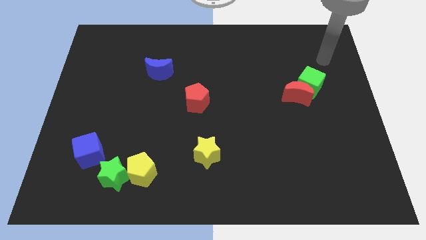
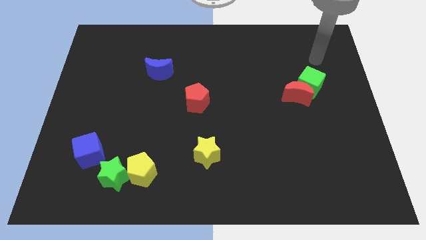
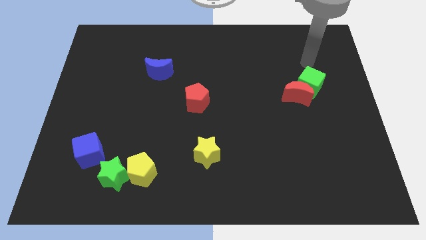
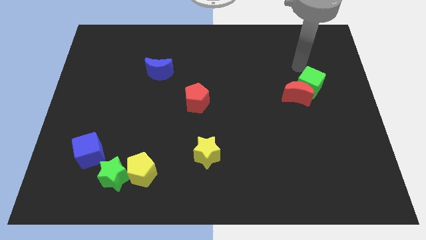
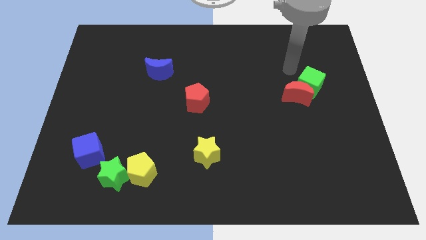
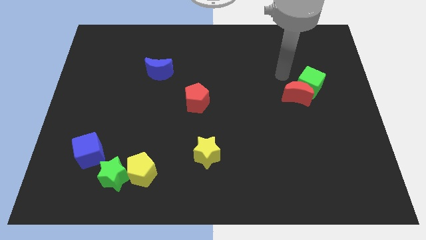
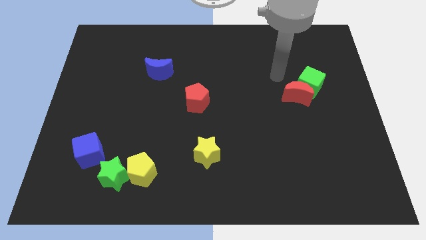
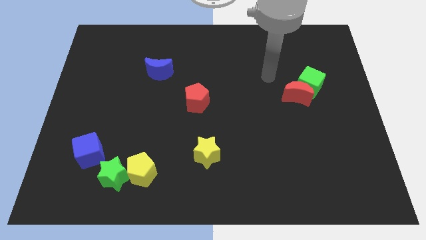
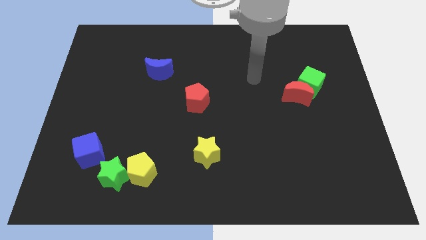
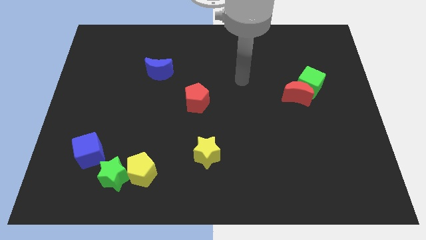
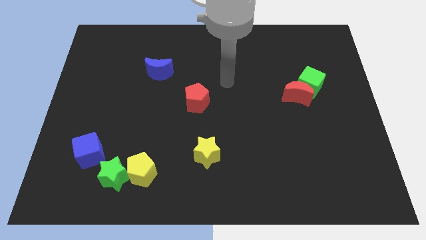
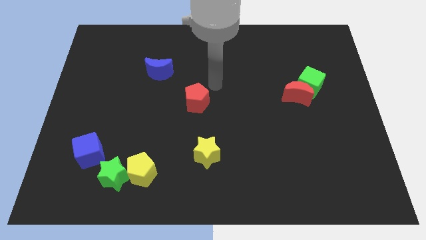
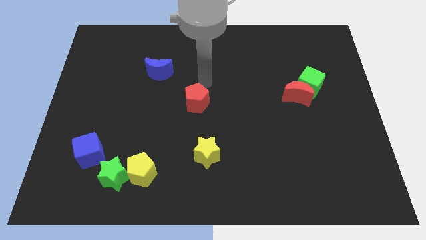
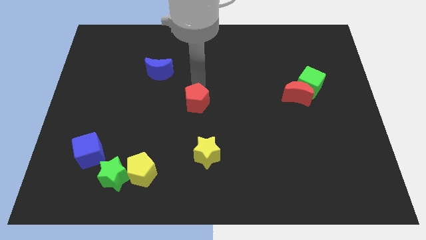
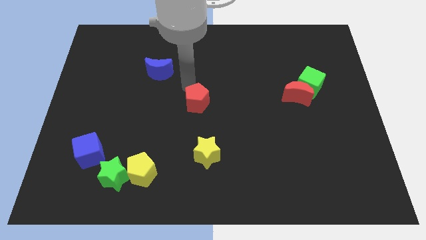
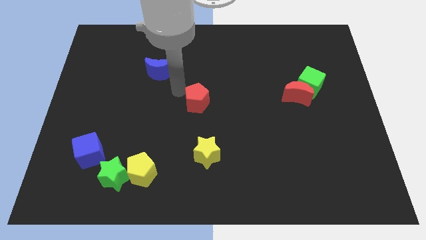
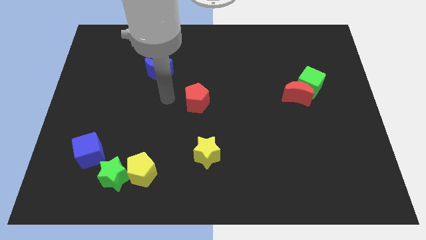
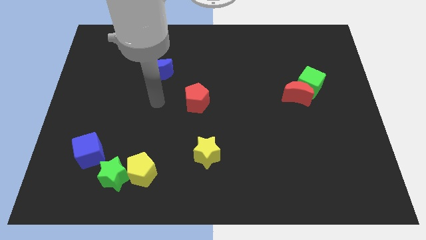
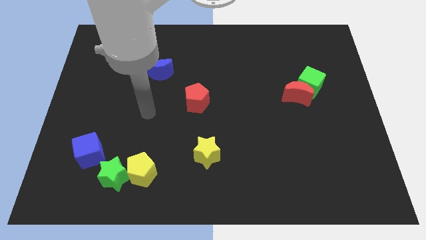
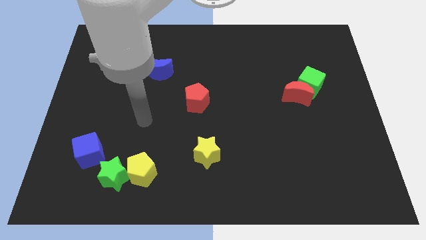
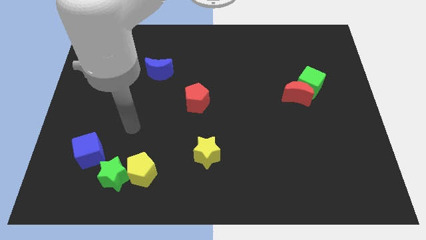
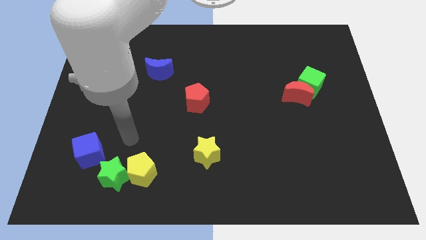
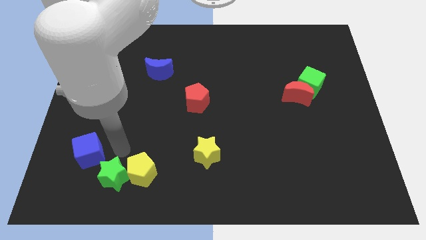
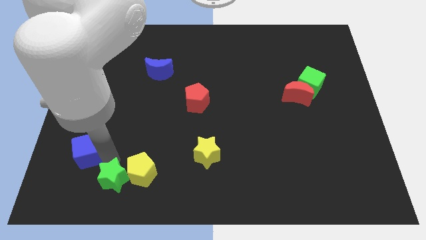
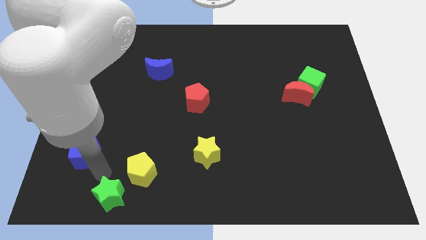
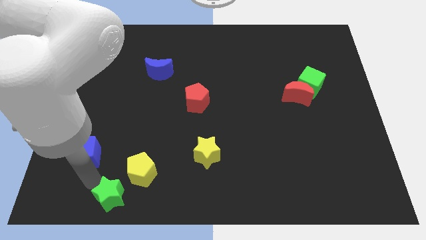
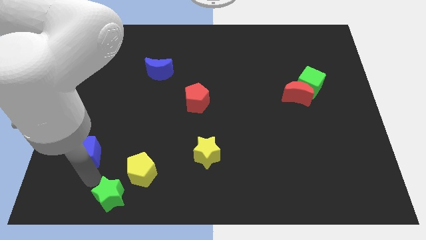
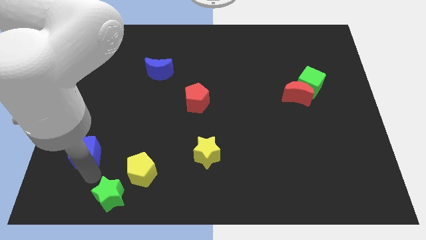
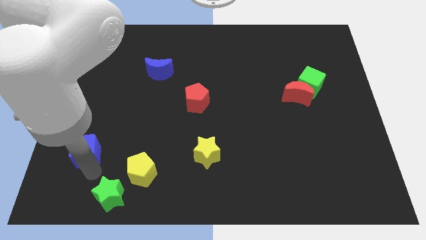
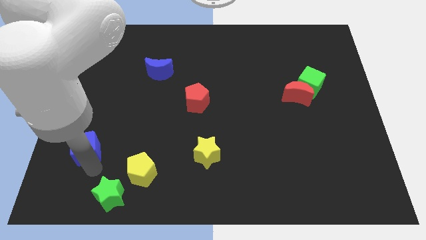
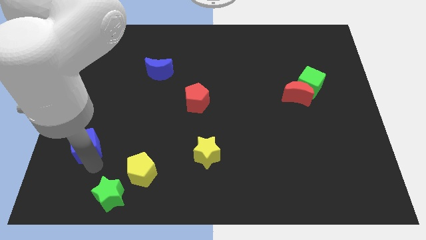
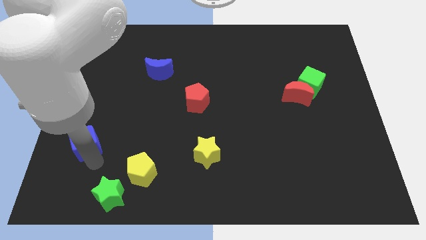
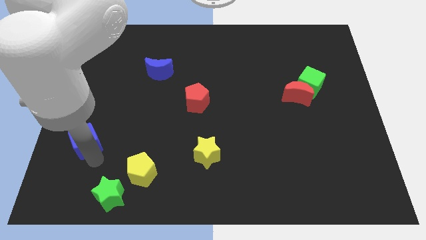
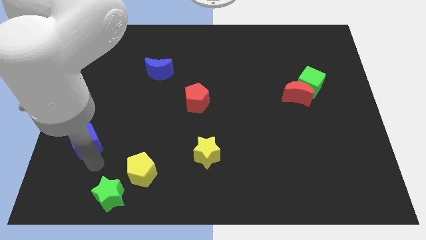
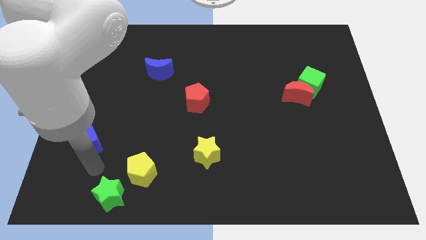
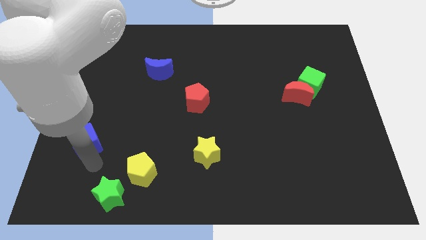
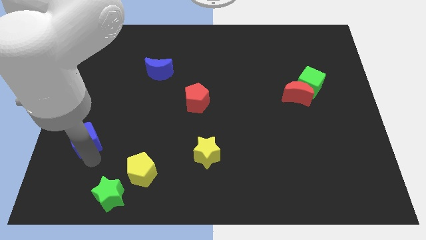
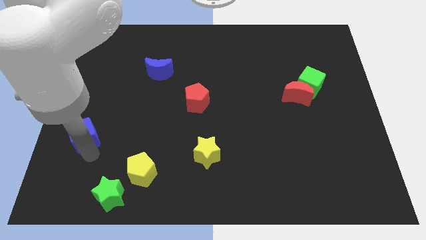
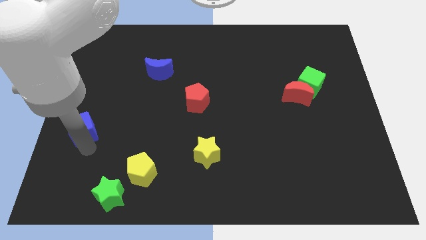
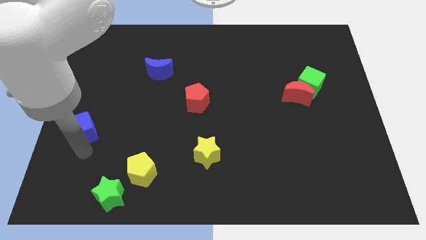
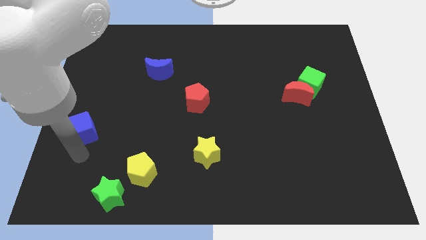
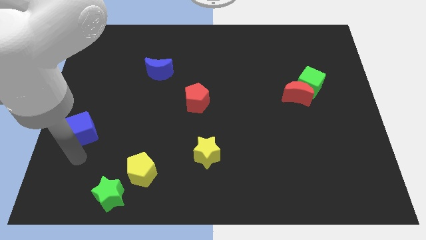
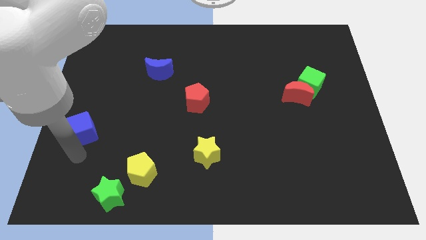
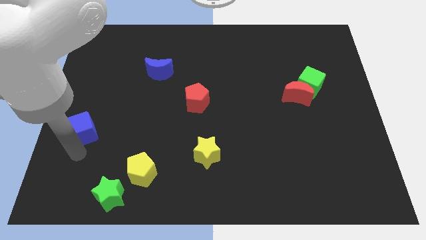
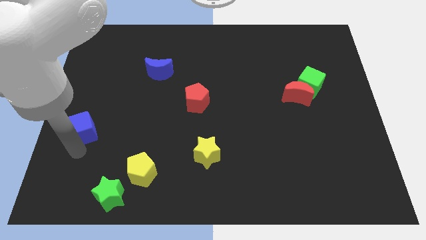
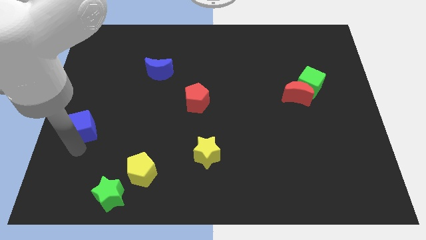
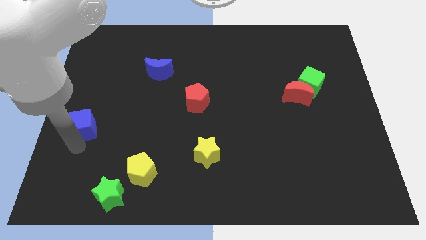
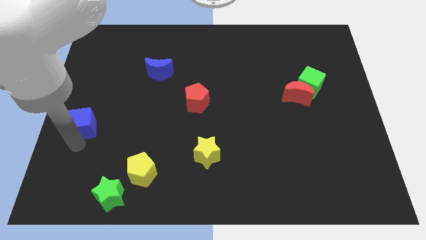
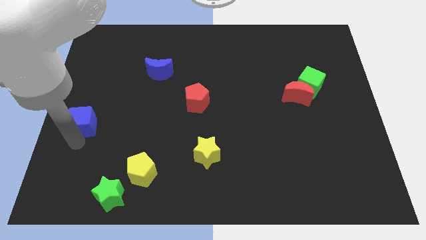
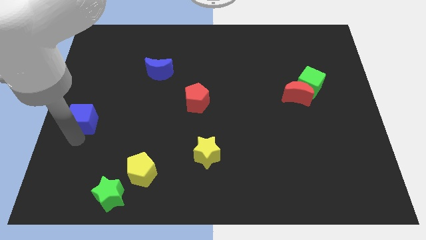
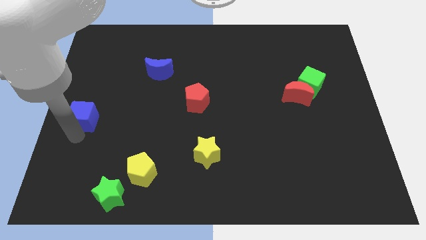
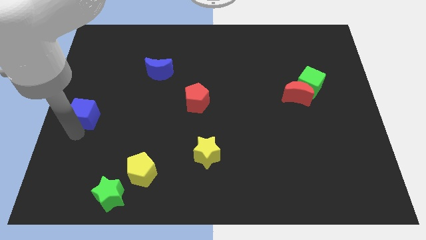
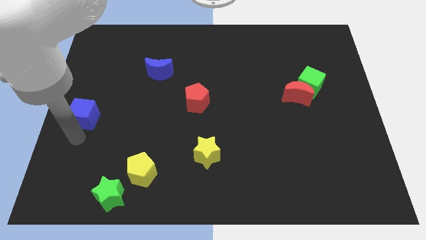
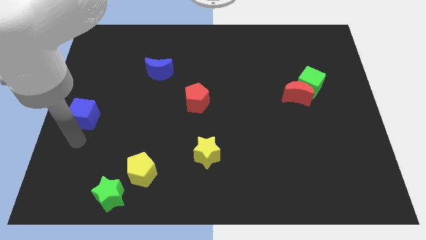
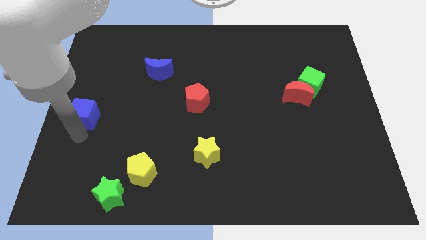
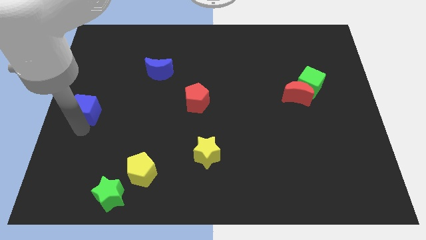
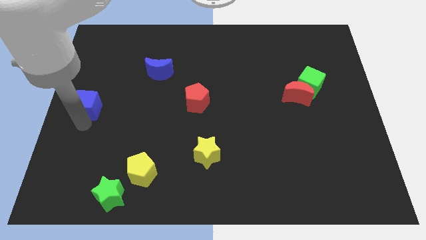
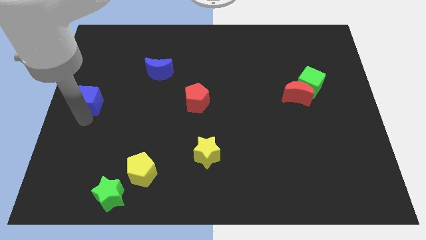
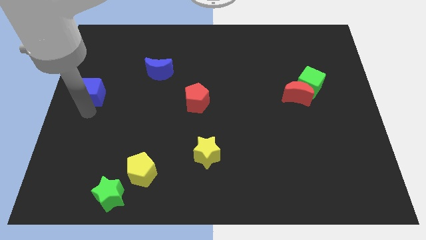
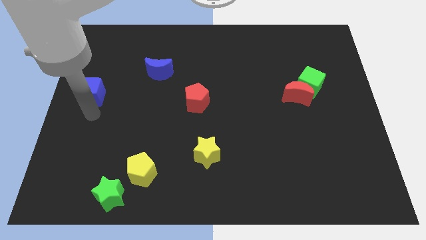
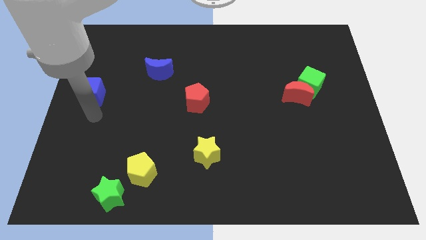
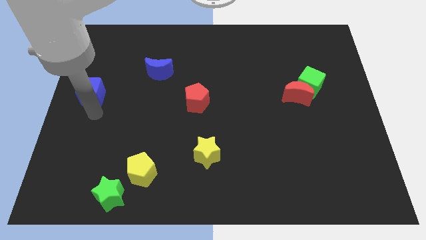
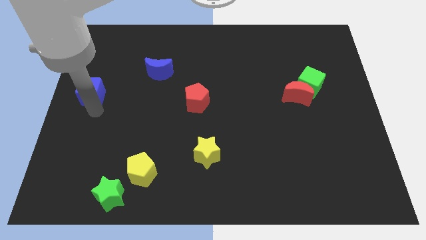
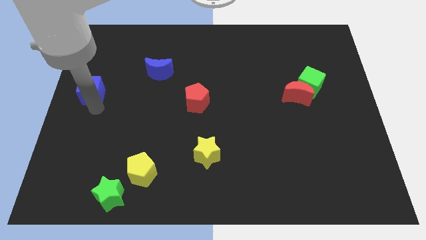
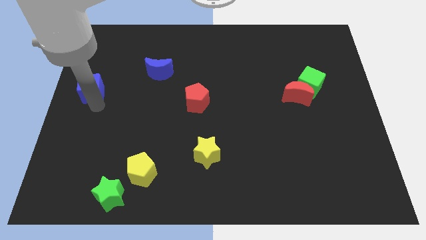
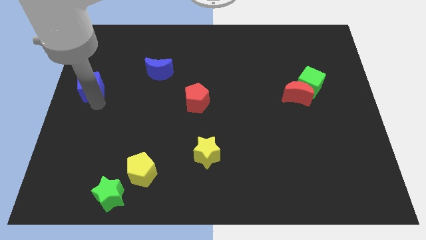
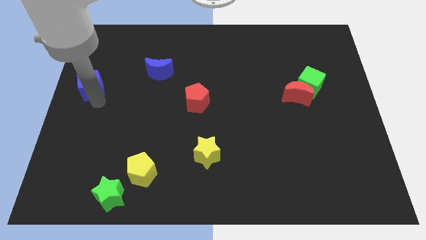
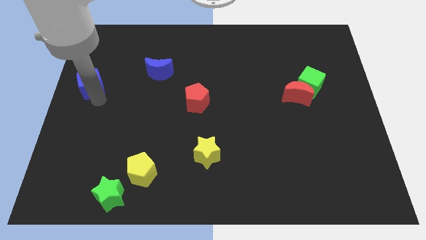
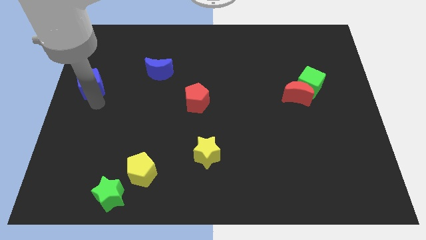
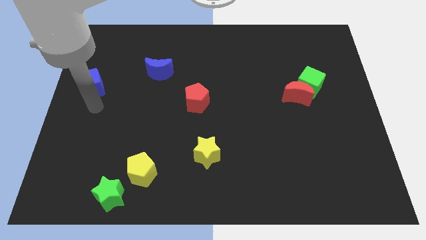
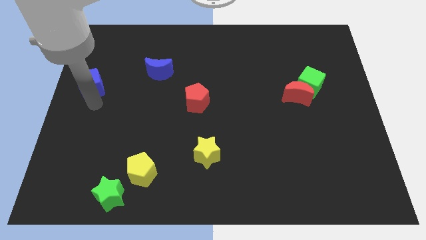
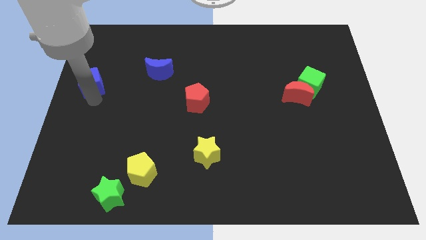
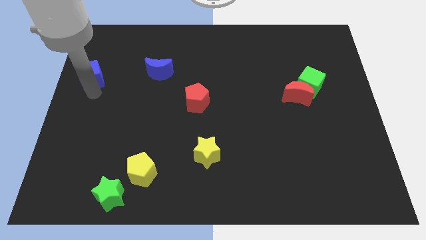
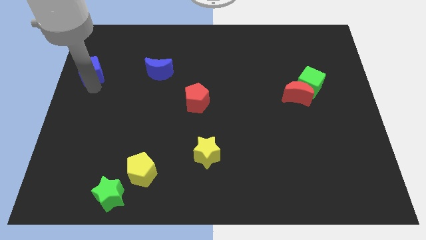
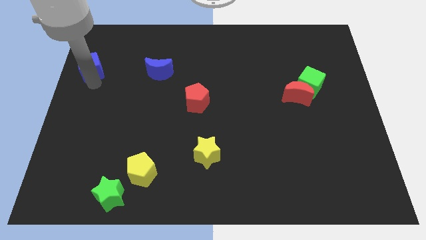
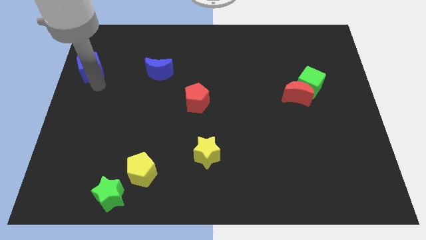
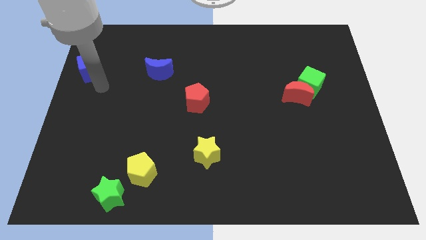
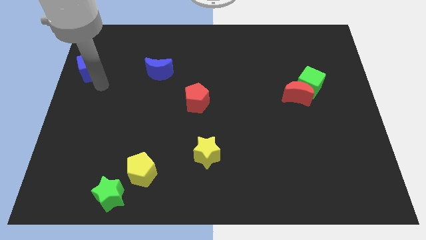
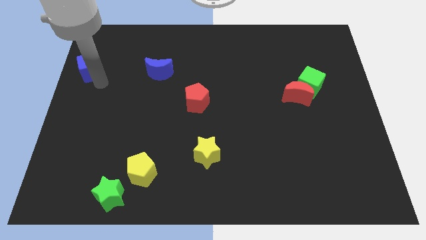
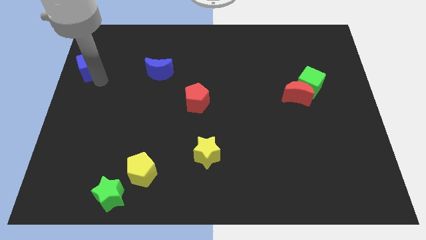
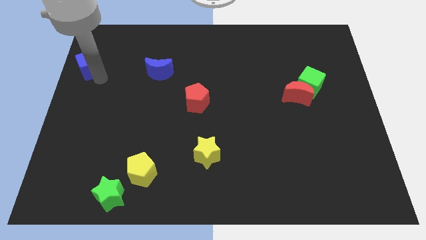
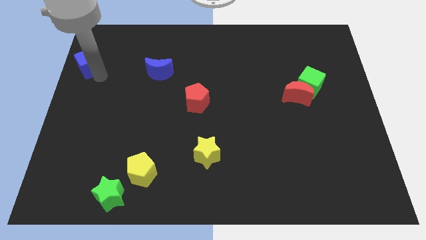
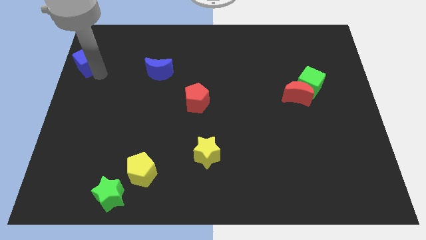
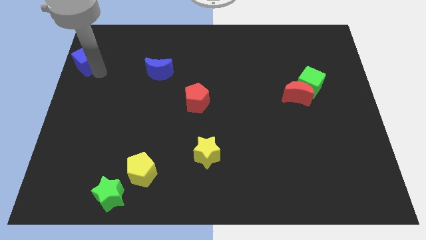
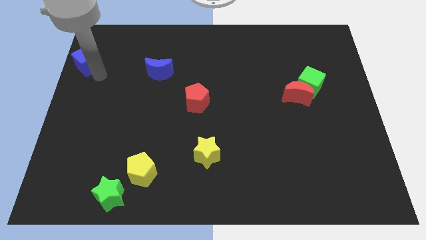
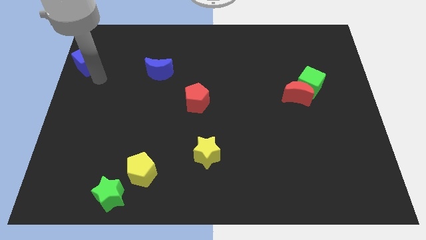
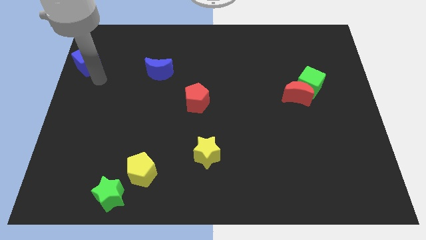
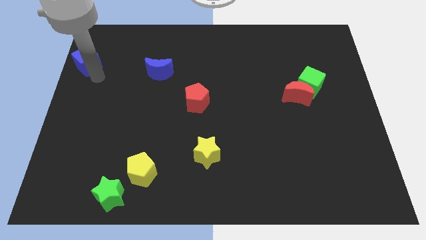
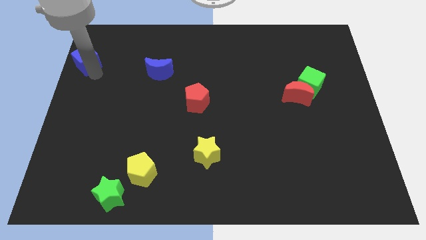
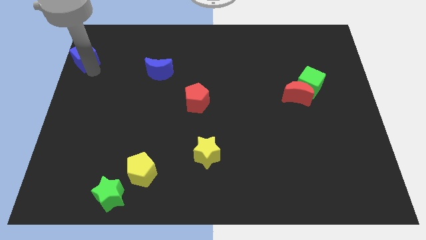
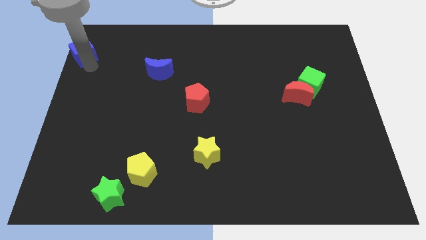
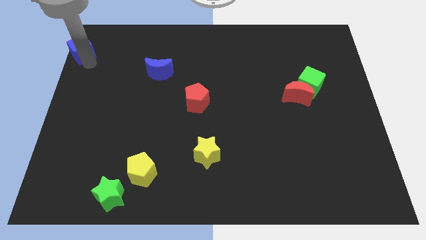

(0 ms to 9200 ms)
slide the blue cube to the top left of the board
